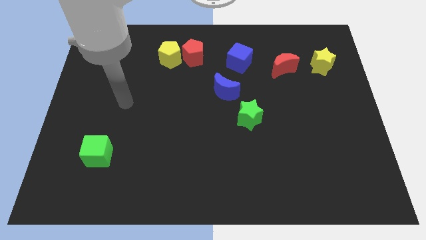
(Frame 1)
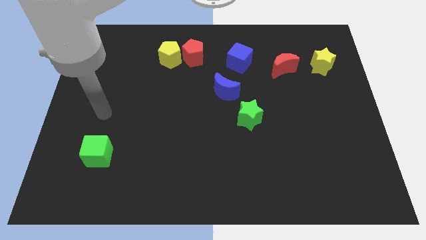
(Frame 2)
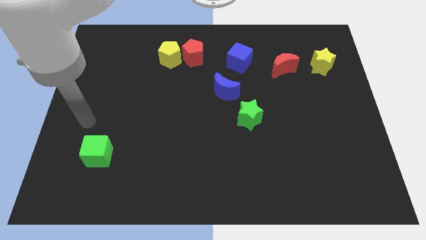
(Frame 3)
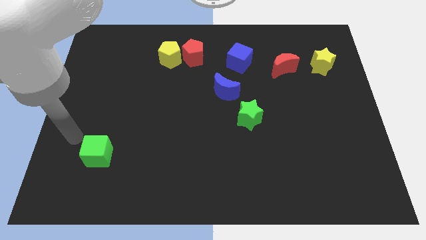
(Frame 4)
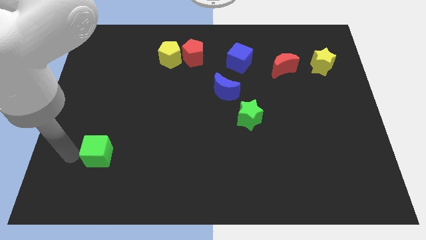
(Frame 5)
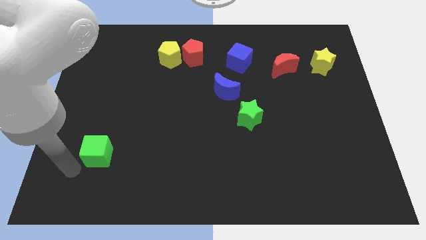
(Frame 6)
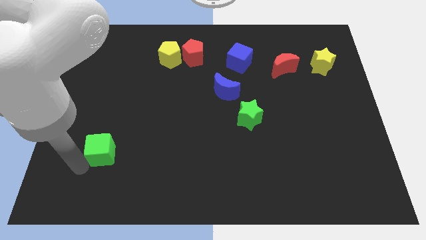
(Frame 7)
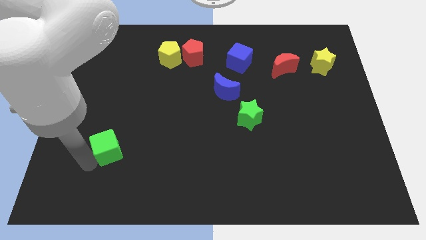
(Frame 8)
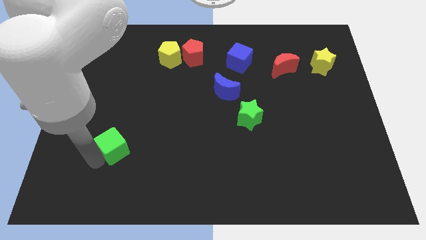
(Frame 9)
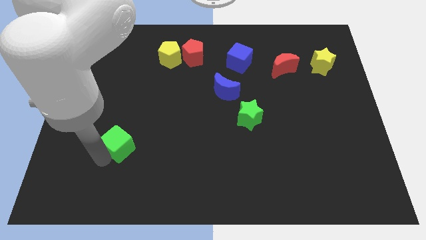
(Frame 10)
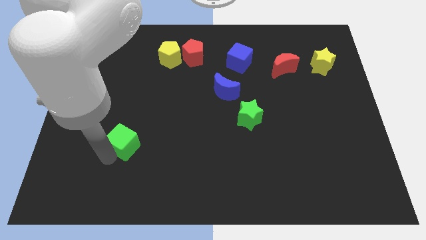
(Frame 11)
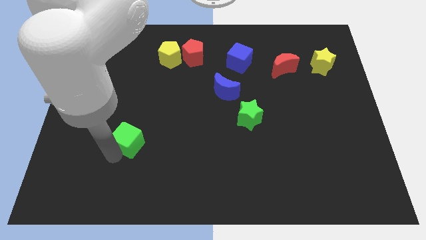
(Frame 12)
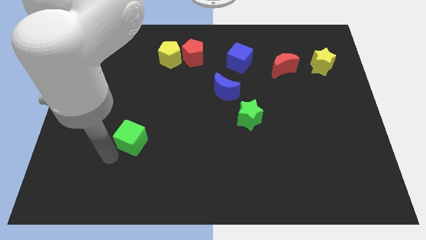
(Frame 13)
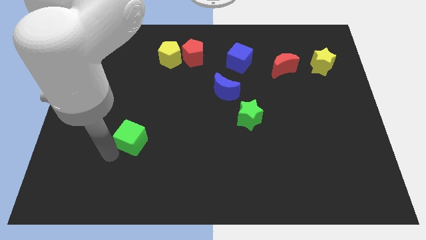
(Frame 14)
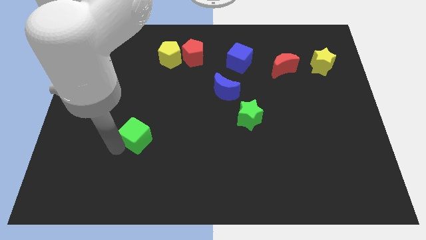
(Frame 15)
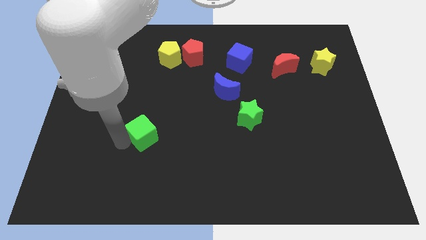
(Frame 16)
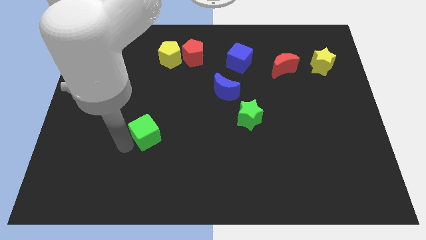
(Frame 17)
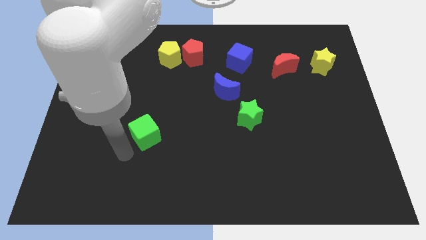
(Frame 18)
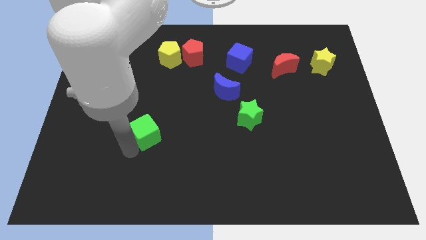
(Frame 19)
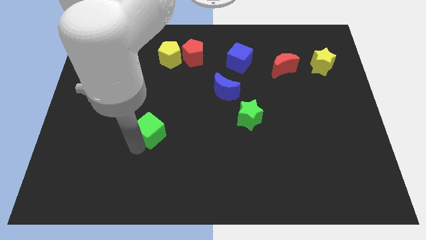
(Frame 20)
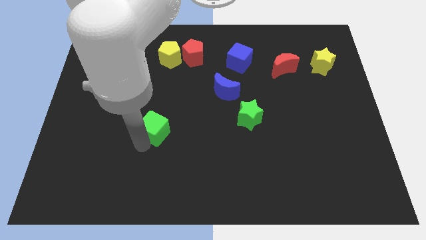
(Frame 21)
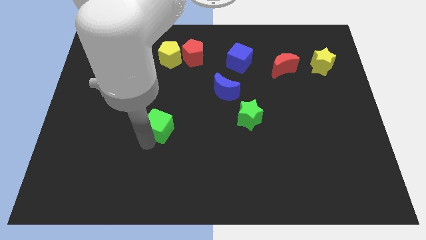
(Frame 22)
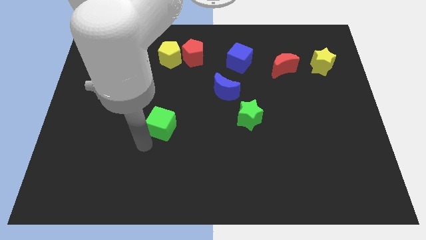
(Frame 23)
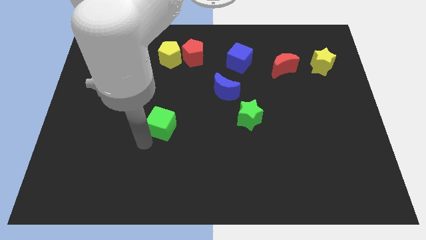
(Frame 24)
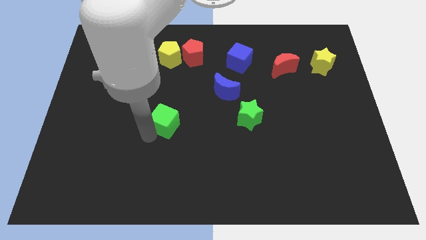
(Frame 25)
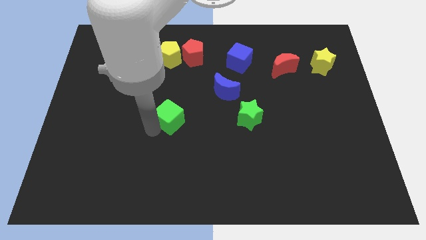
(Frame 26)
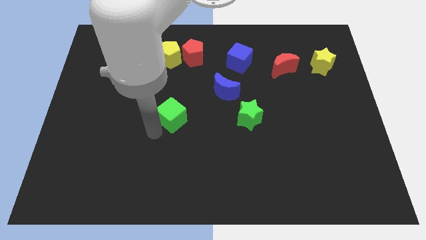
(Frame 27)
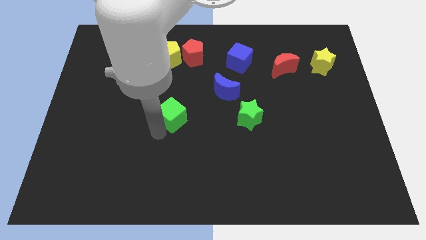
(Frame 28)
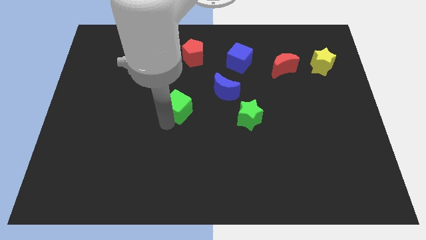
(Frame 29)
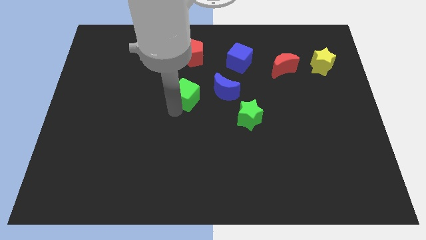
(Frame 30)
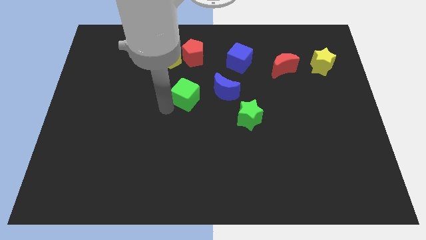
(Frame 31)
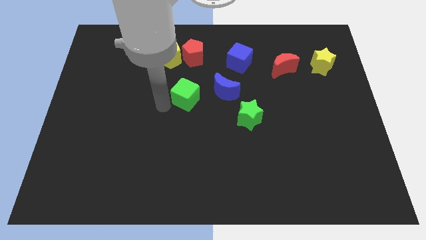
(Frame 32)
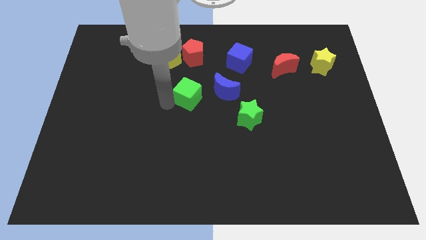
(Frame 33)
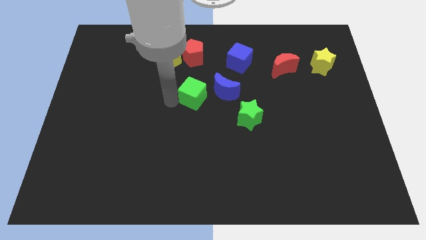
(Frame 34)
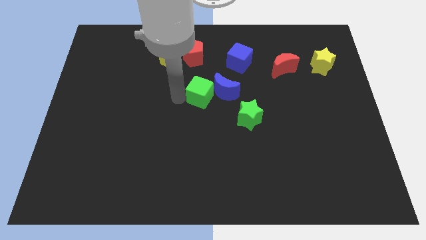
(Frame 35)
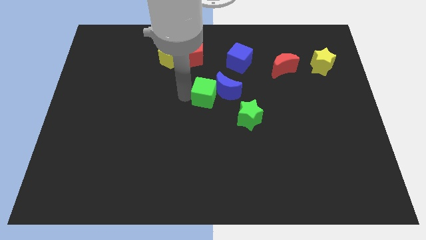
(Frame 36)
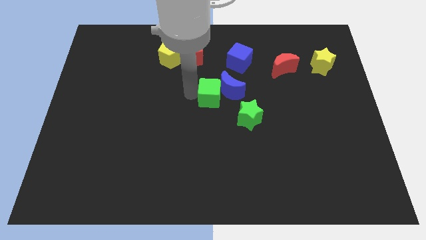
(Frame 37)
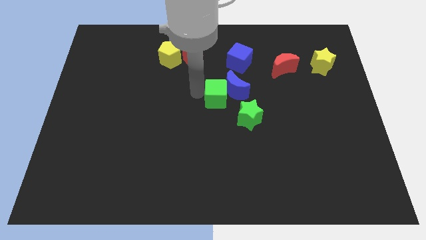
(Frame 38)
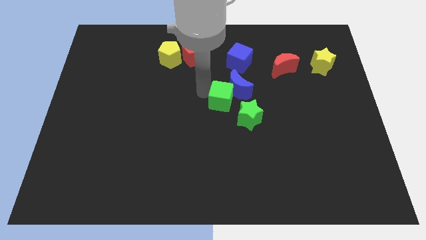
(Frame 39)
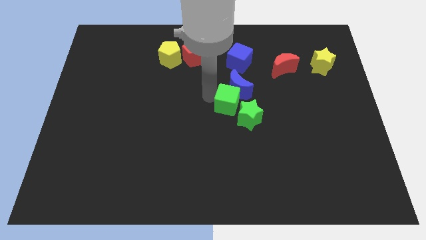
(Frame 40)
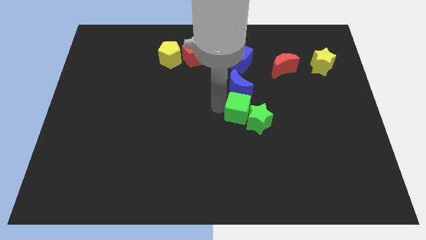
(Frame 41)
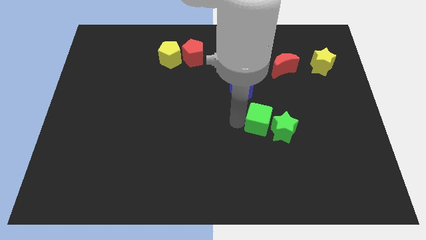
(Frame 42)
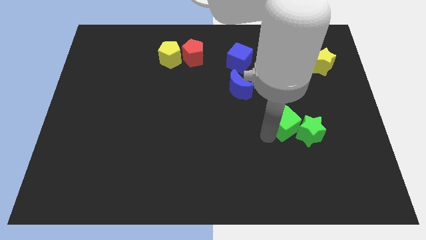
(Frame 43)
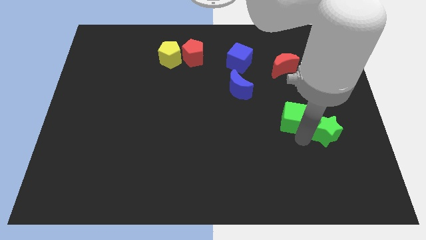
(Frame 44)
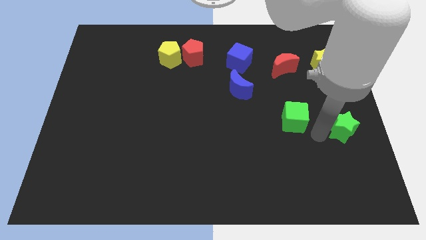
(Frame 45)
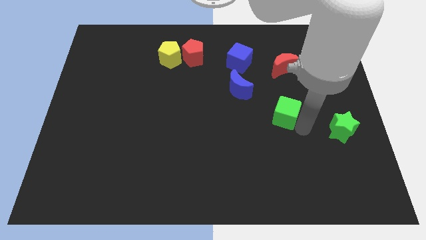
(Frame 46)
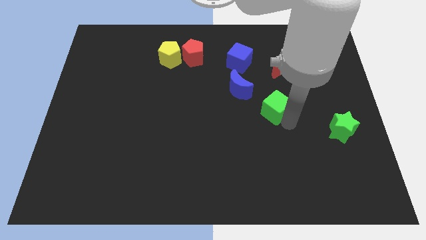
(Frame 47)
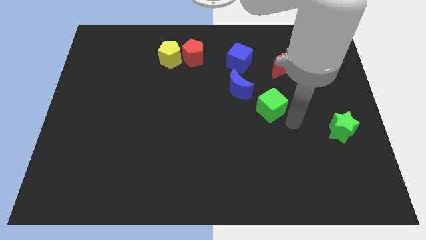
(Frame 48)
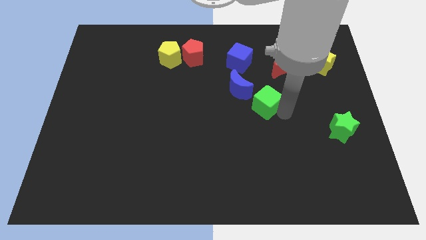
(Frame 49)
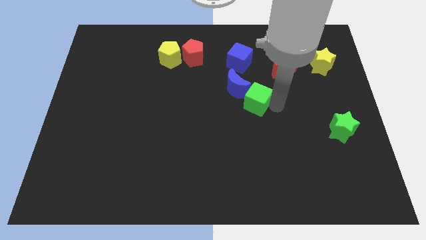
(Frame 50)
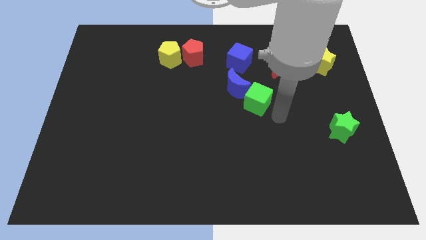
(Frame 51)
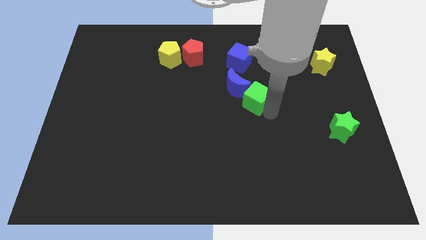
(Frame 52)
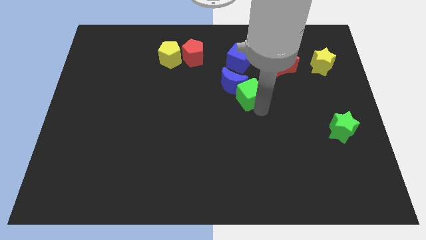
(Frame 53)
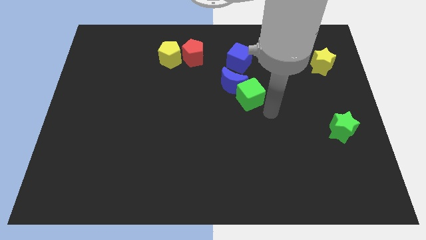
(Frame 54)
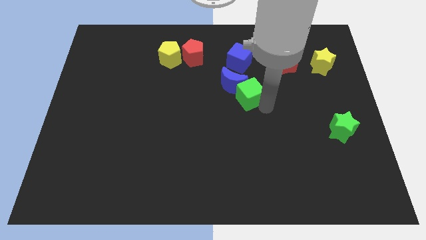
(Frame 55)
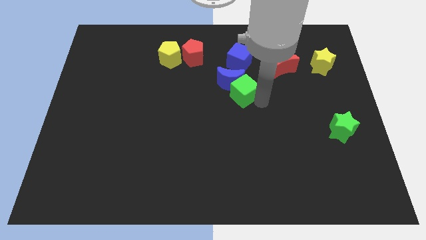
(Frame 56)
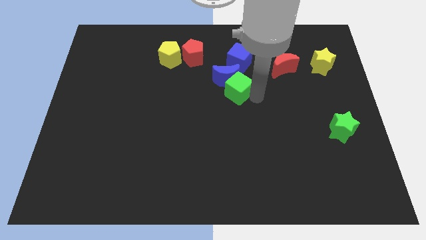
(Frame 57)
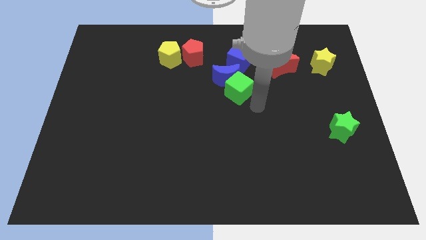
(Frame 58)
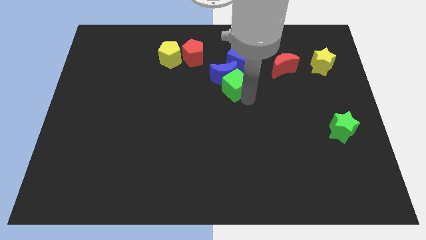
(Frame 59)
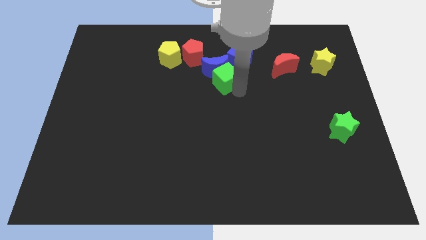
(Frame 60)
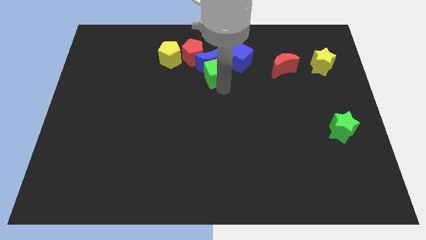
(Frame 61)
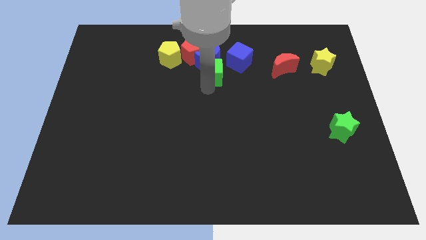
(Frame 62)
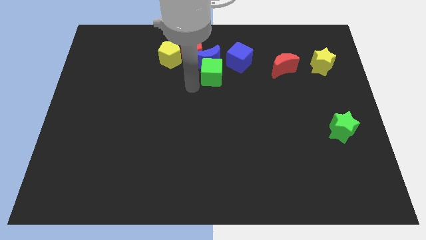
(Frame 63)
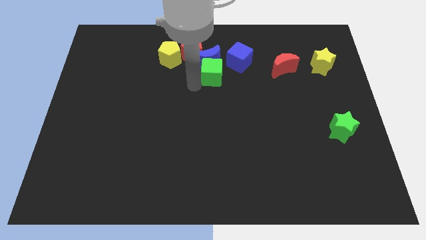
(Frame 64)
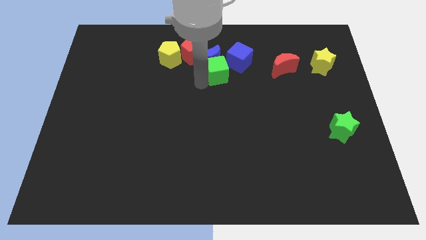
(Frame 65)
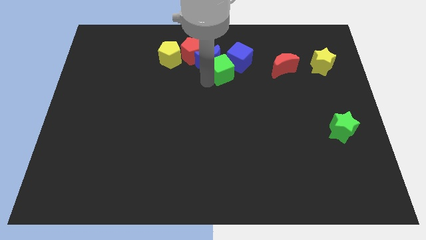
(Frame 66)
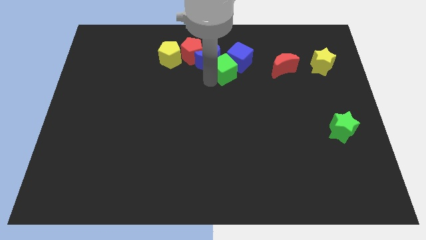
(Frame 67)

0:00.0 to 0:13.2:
push the green cube to the blue cube

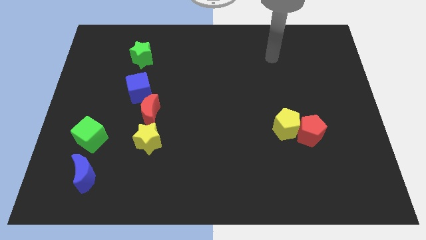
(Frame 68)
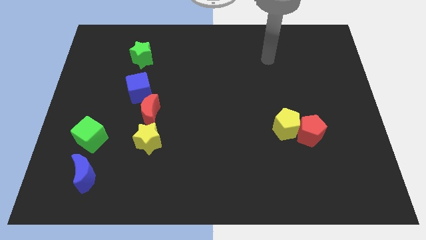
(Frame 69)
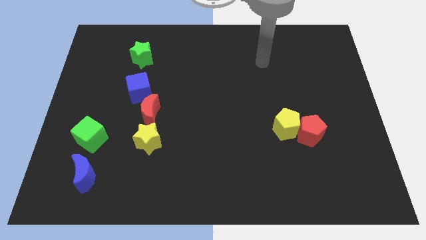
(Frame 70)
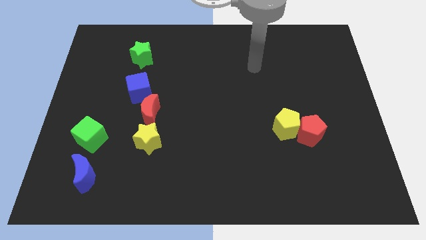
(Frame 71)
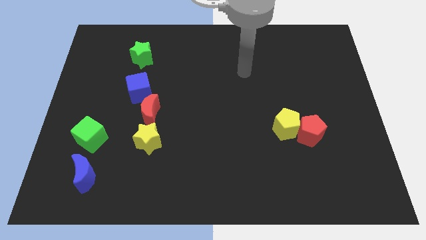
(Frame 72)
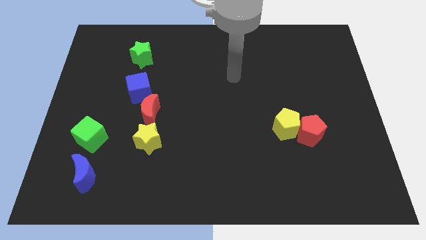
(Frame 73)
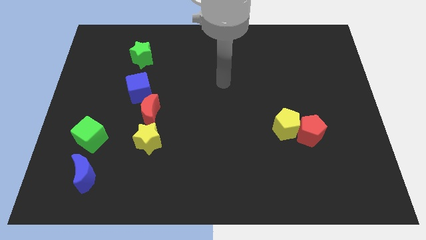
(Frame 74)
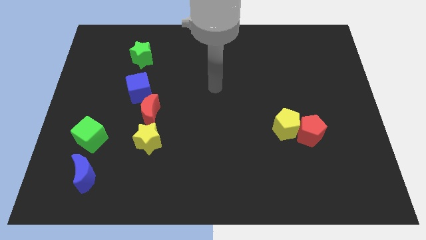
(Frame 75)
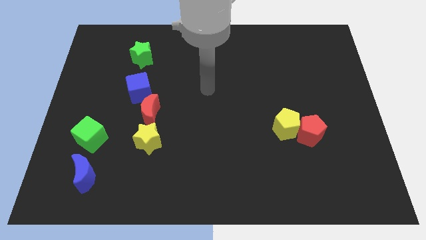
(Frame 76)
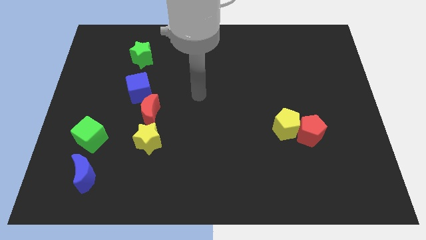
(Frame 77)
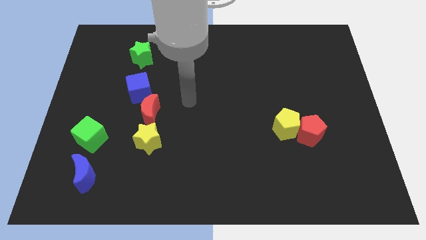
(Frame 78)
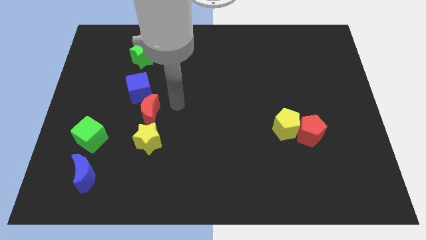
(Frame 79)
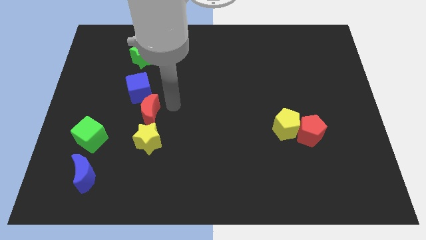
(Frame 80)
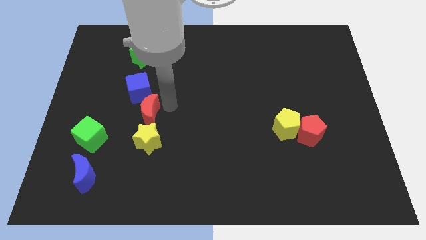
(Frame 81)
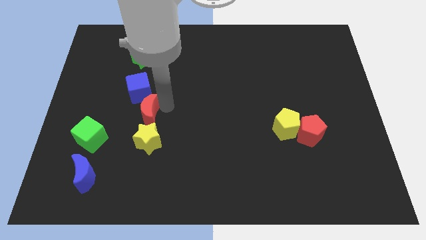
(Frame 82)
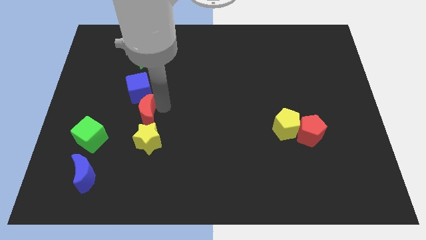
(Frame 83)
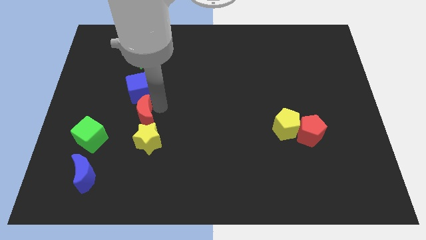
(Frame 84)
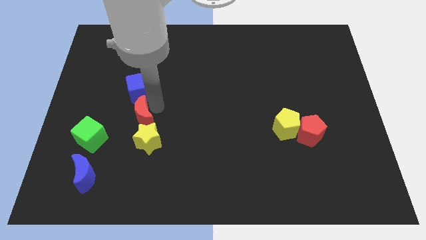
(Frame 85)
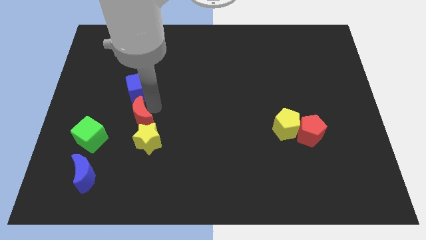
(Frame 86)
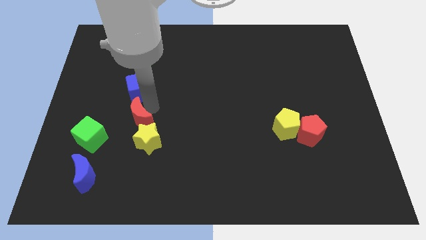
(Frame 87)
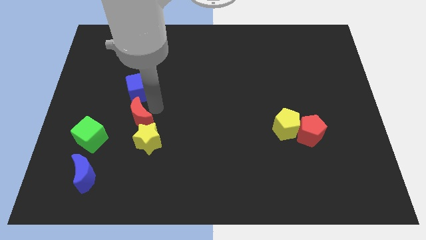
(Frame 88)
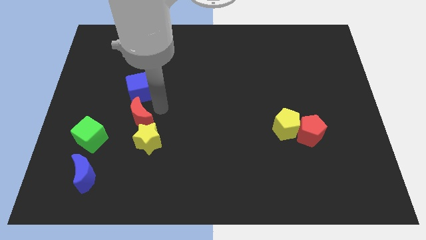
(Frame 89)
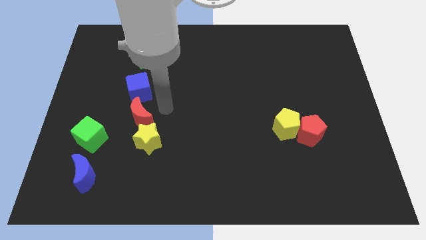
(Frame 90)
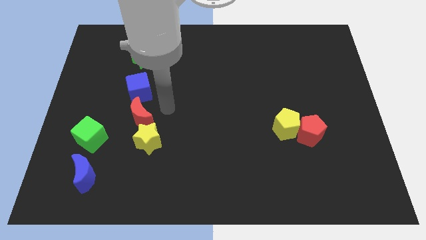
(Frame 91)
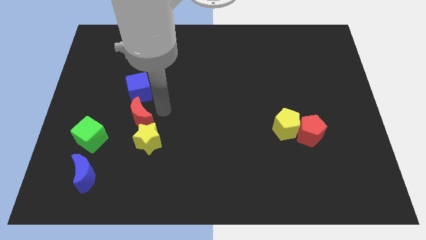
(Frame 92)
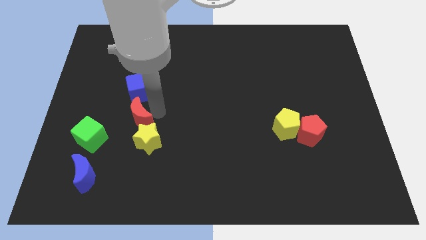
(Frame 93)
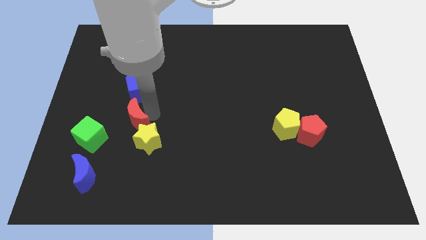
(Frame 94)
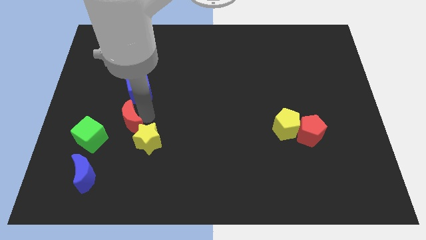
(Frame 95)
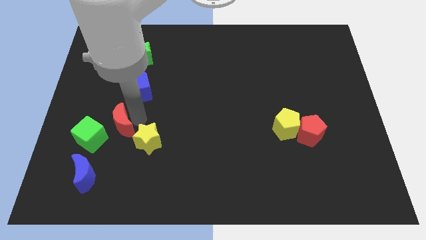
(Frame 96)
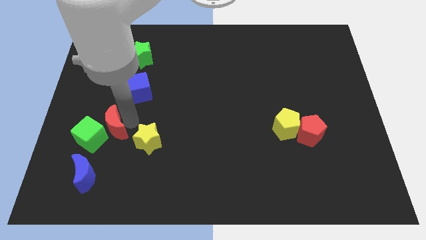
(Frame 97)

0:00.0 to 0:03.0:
slide the red moon to the green cube
